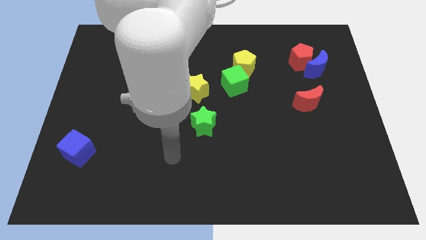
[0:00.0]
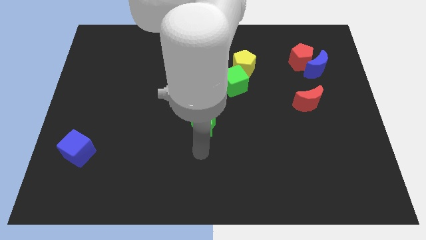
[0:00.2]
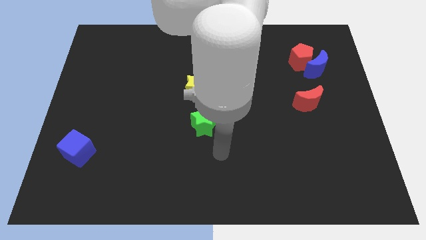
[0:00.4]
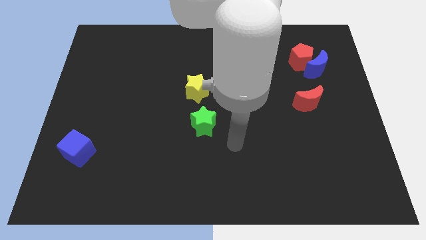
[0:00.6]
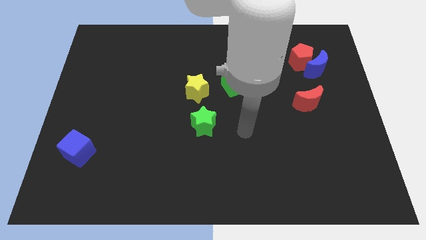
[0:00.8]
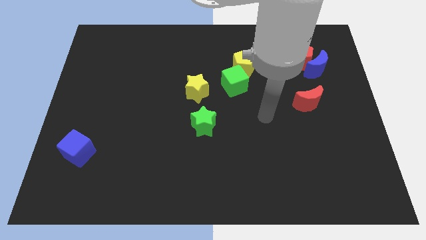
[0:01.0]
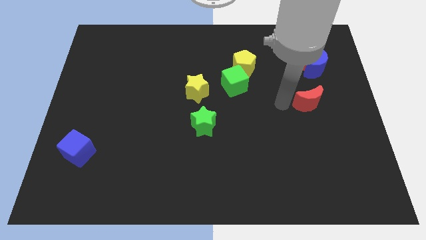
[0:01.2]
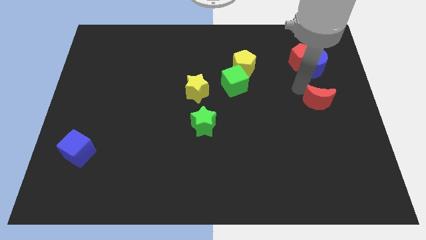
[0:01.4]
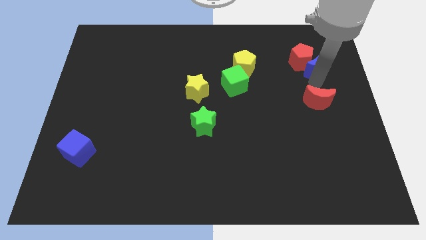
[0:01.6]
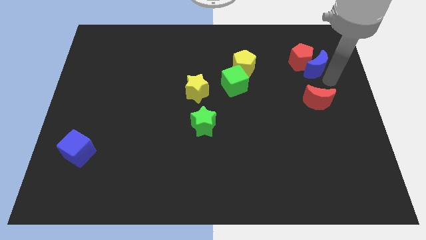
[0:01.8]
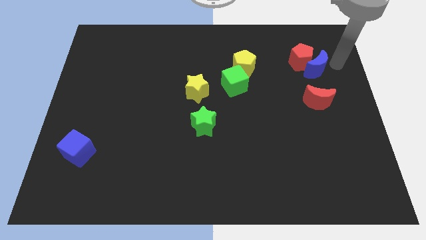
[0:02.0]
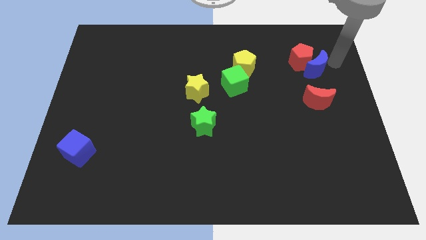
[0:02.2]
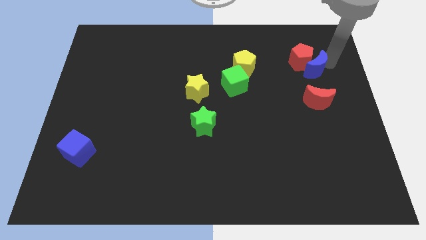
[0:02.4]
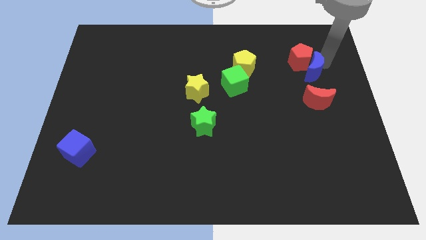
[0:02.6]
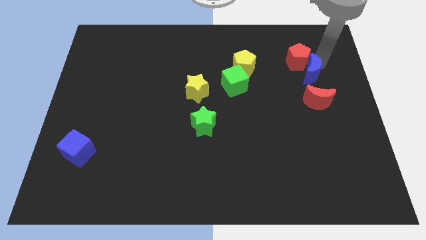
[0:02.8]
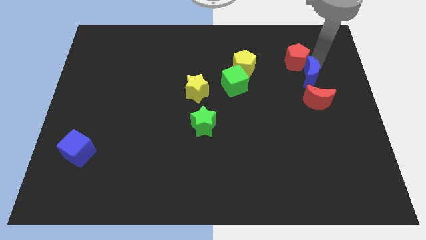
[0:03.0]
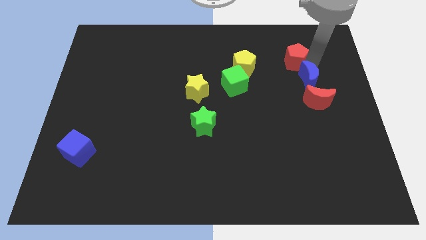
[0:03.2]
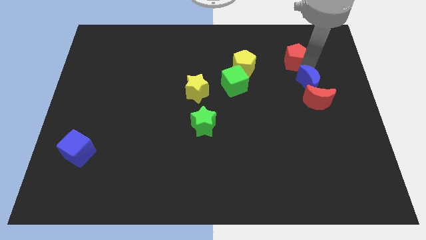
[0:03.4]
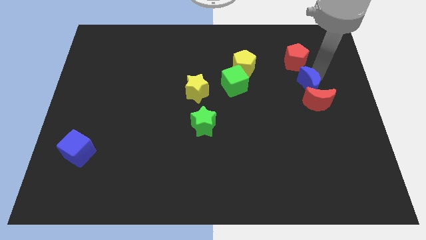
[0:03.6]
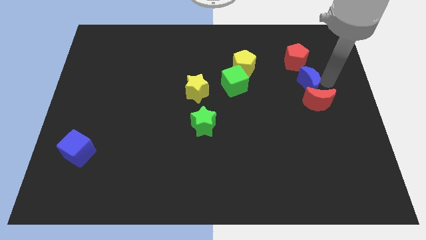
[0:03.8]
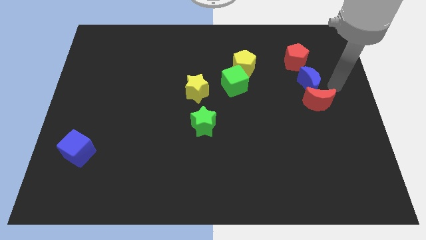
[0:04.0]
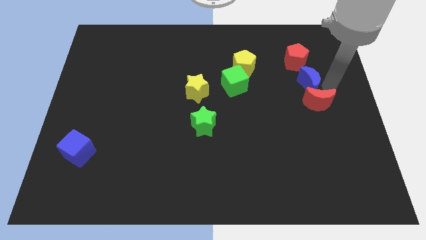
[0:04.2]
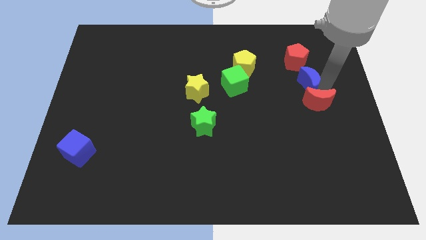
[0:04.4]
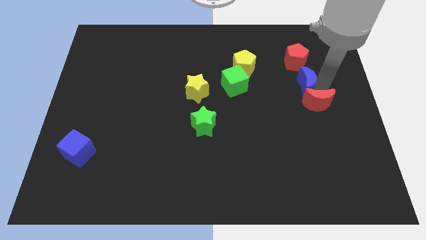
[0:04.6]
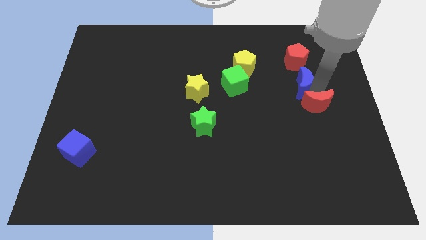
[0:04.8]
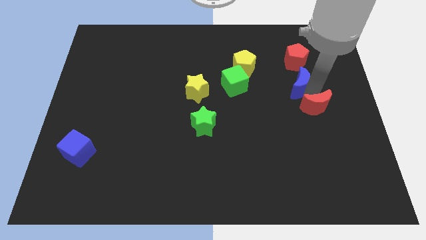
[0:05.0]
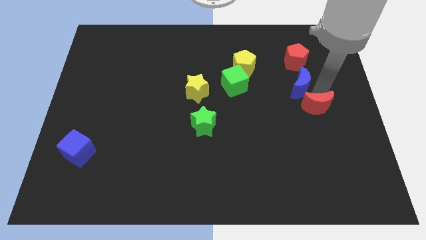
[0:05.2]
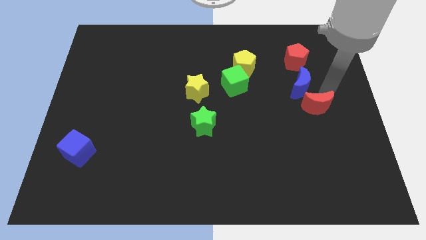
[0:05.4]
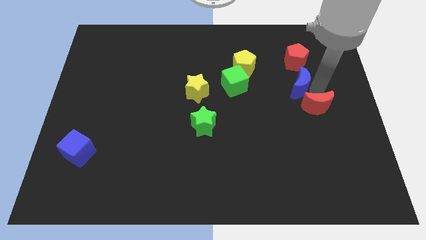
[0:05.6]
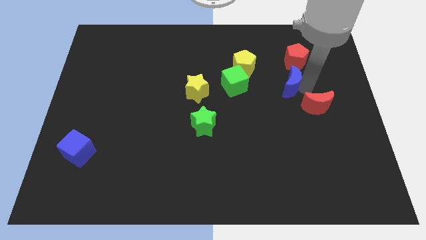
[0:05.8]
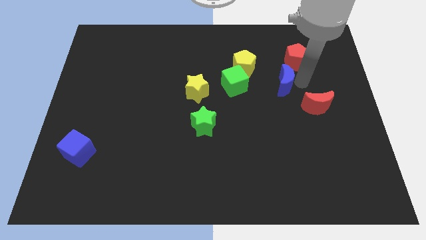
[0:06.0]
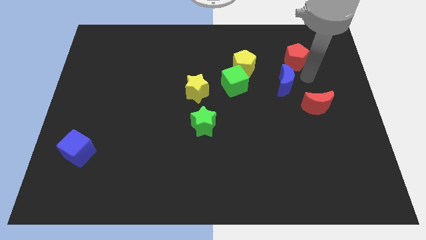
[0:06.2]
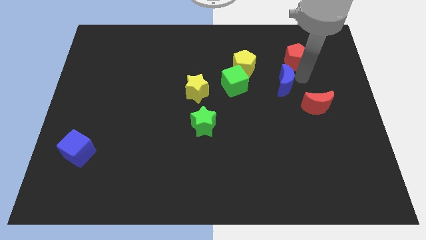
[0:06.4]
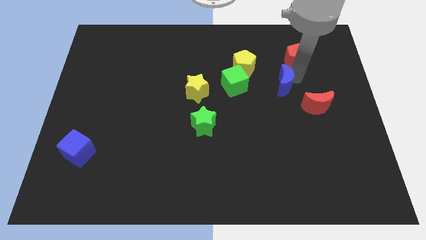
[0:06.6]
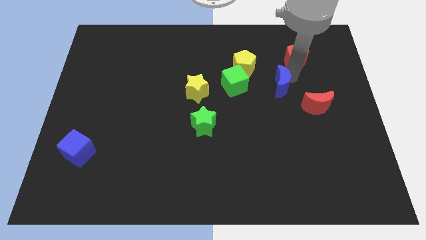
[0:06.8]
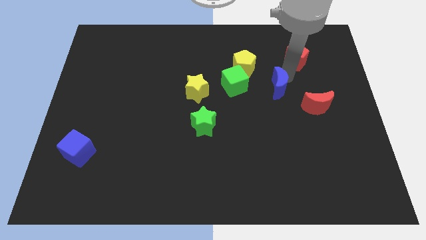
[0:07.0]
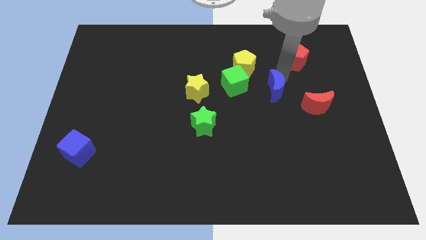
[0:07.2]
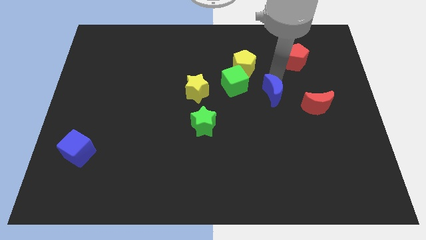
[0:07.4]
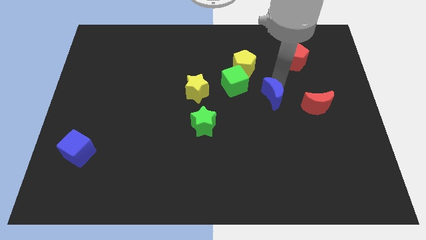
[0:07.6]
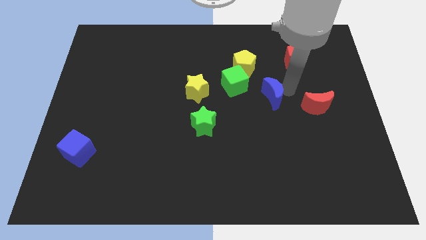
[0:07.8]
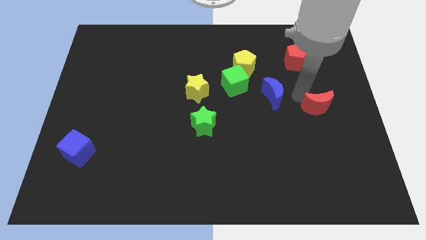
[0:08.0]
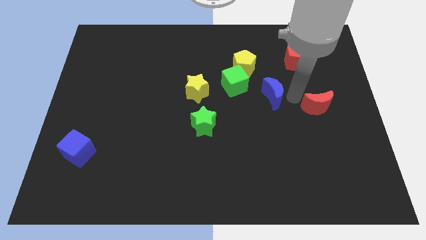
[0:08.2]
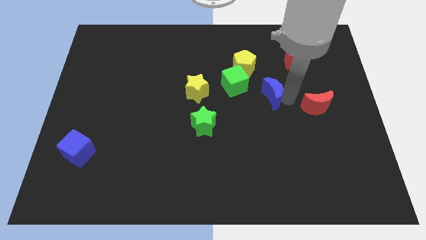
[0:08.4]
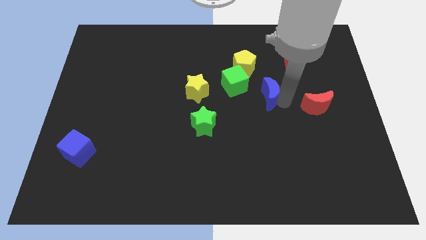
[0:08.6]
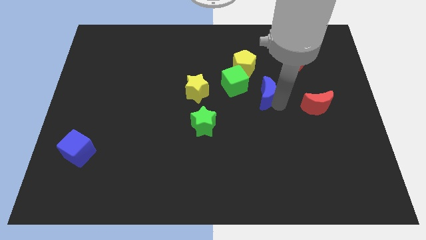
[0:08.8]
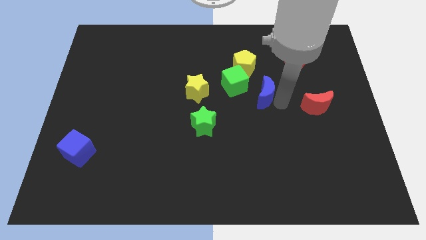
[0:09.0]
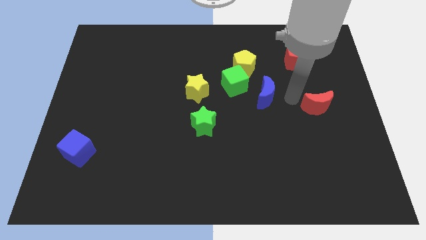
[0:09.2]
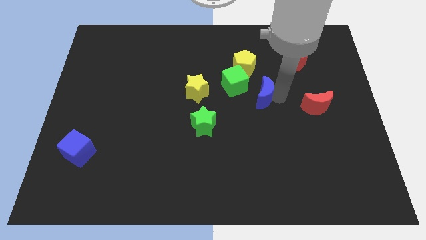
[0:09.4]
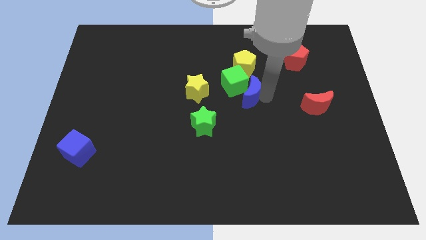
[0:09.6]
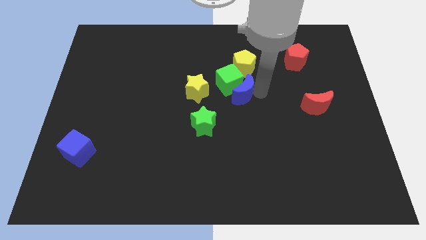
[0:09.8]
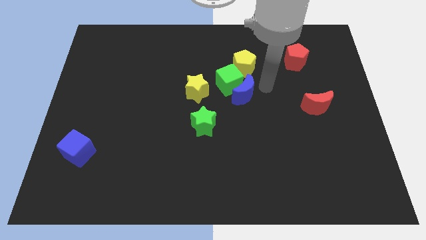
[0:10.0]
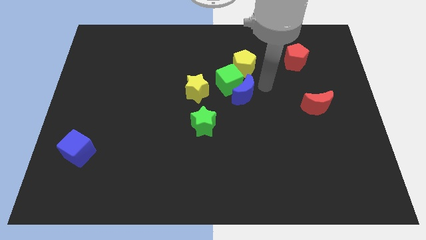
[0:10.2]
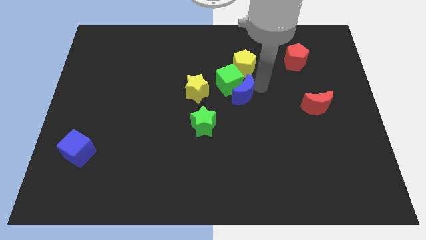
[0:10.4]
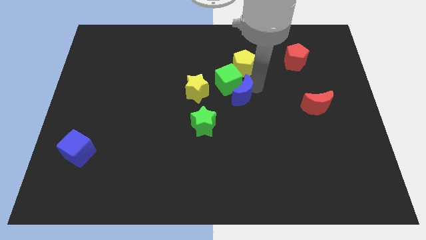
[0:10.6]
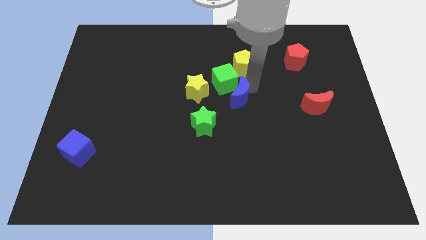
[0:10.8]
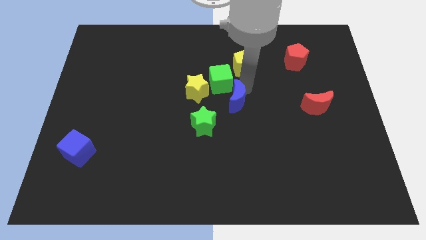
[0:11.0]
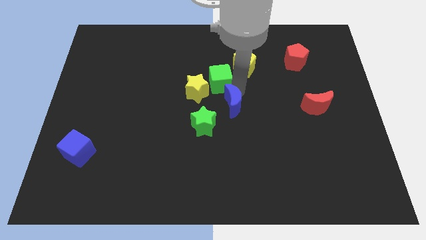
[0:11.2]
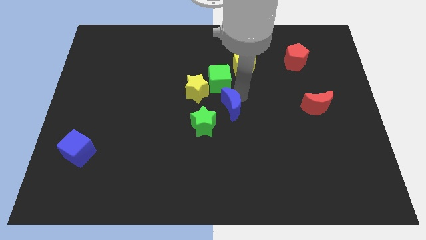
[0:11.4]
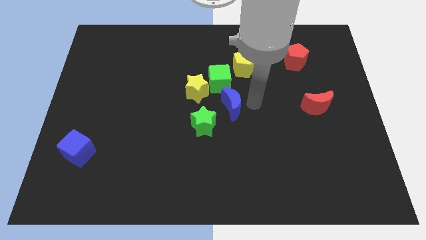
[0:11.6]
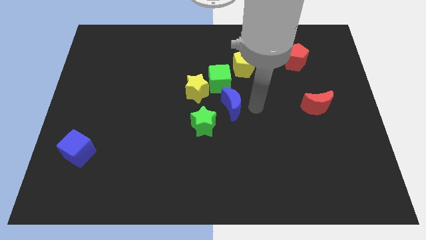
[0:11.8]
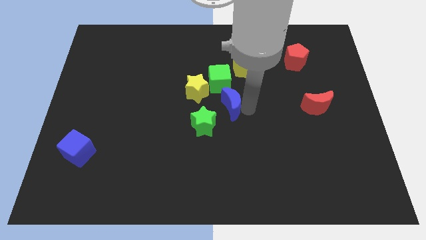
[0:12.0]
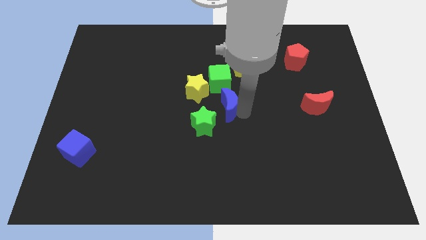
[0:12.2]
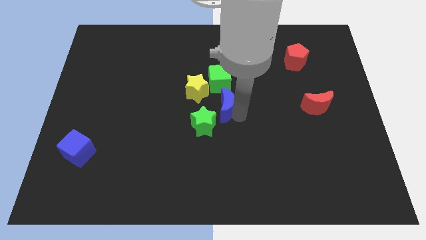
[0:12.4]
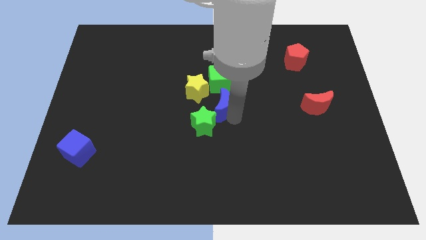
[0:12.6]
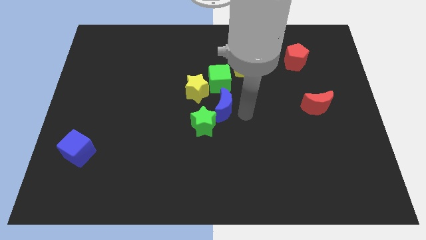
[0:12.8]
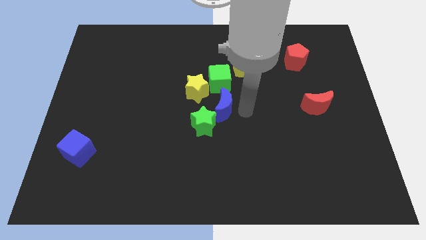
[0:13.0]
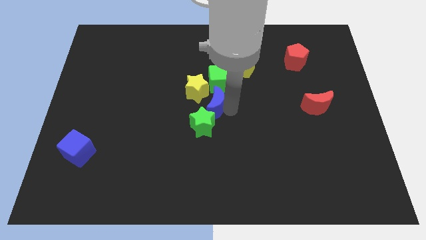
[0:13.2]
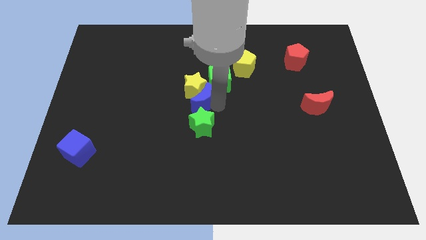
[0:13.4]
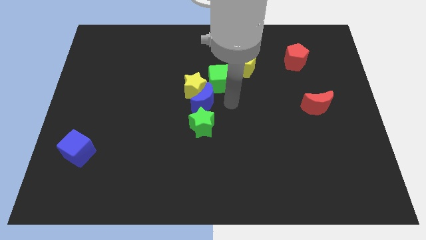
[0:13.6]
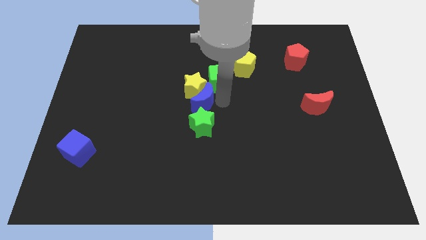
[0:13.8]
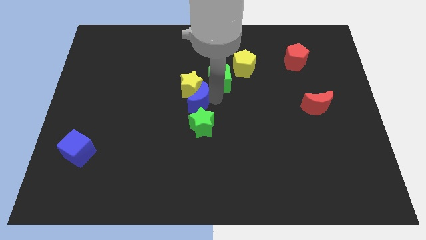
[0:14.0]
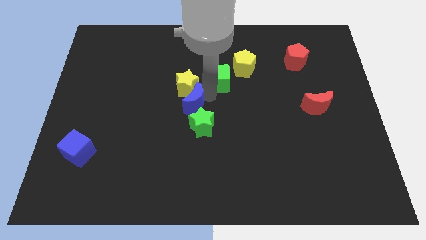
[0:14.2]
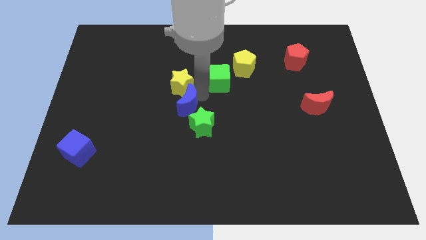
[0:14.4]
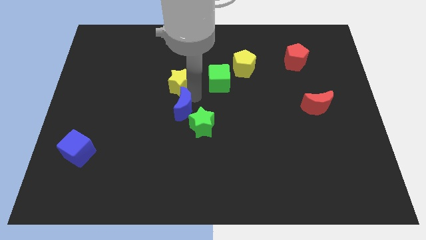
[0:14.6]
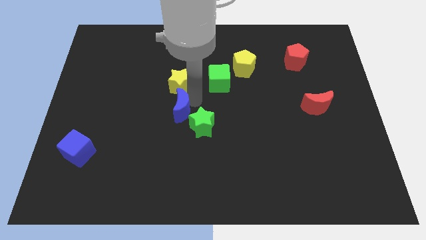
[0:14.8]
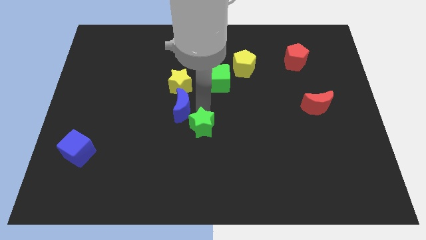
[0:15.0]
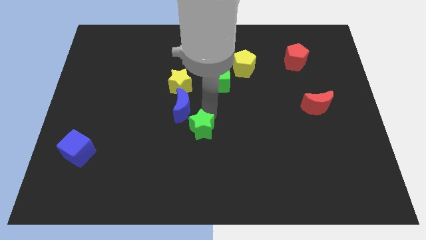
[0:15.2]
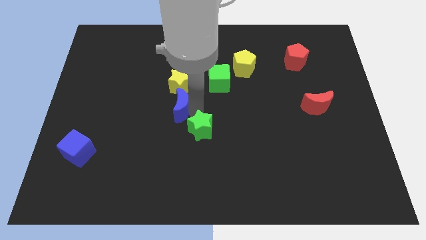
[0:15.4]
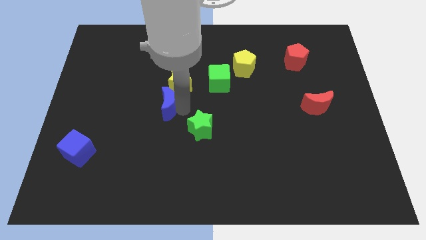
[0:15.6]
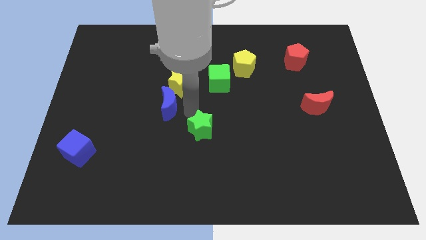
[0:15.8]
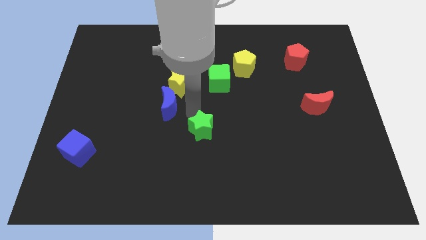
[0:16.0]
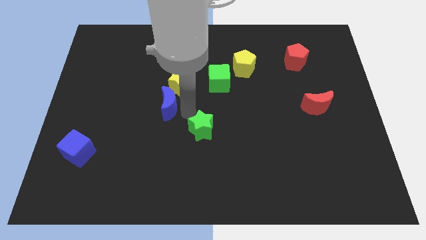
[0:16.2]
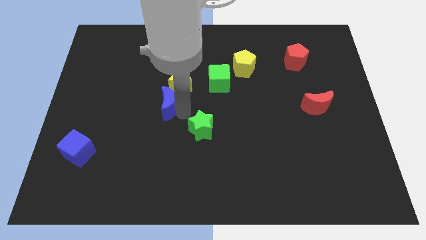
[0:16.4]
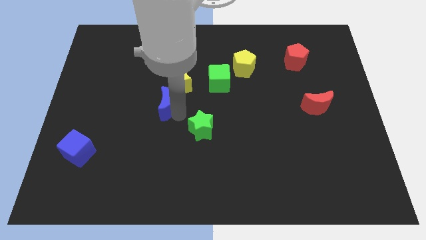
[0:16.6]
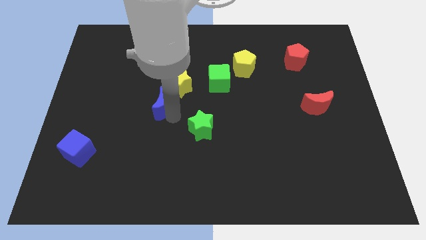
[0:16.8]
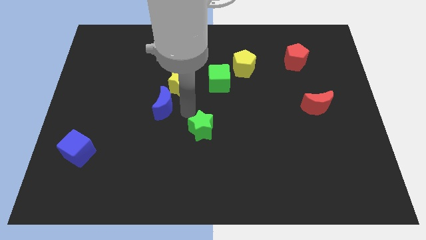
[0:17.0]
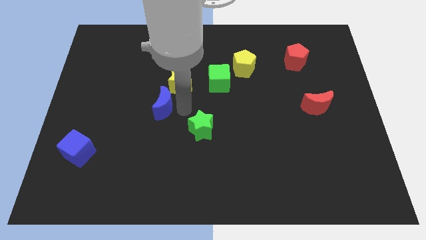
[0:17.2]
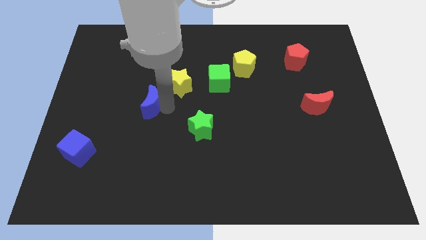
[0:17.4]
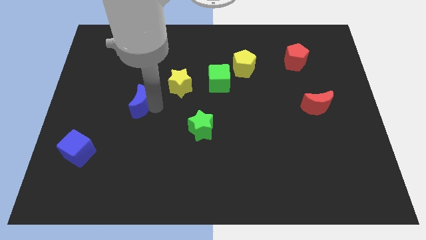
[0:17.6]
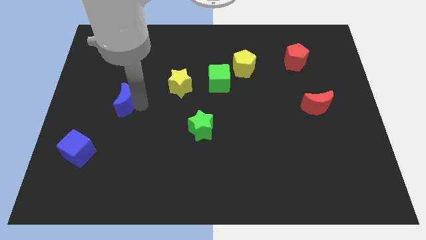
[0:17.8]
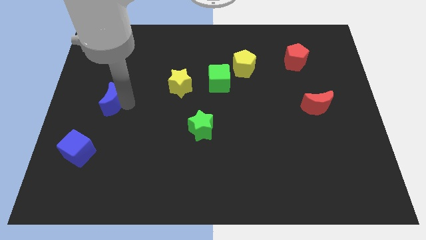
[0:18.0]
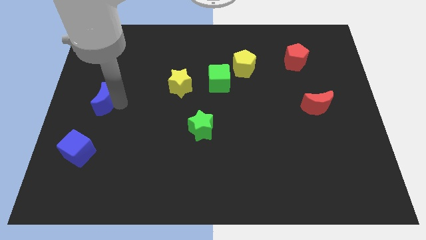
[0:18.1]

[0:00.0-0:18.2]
push the blue moon to the center left
